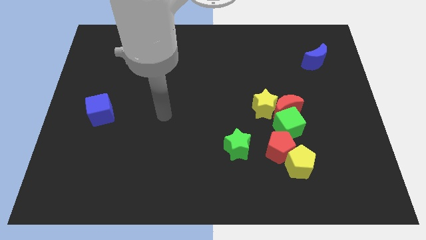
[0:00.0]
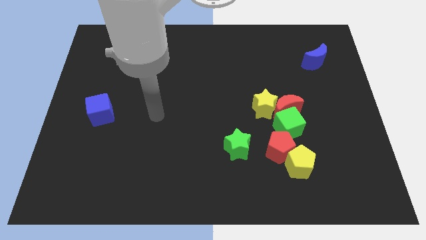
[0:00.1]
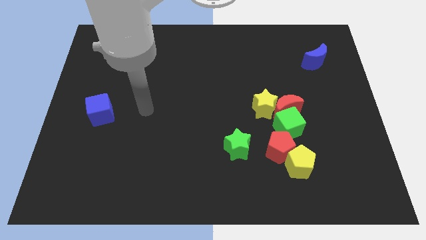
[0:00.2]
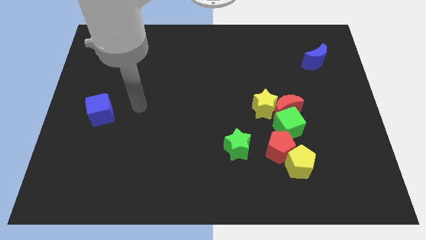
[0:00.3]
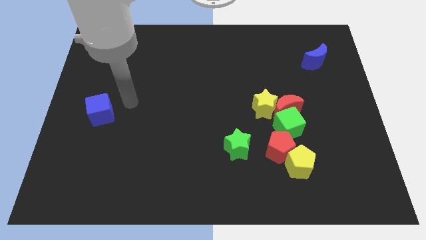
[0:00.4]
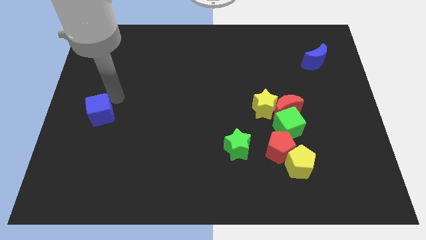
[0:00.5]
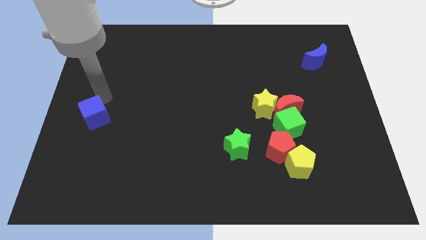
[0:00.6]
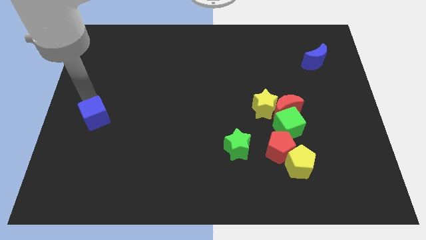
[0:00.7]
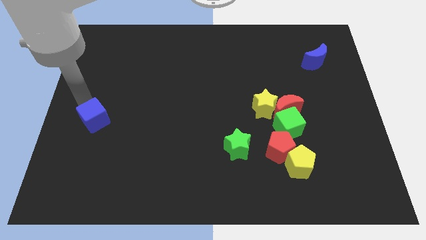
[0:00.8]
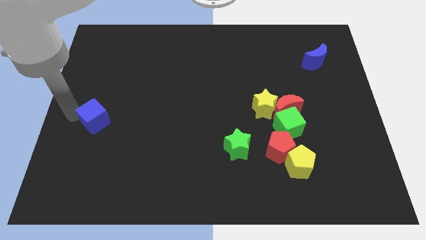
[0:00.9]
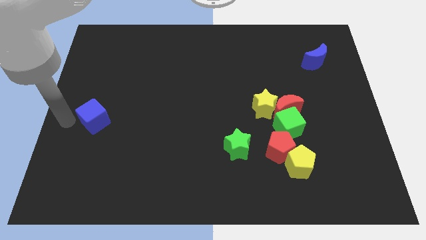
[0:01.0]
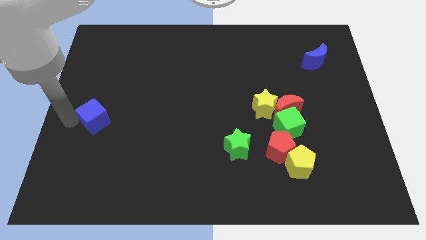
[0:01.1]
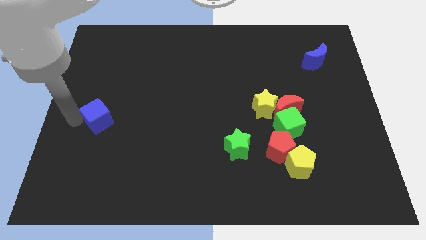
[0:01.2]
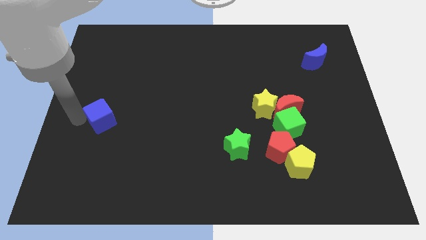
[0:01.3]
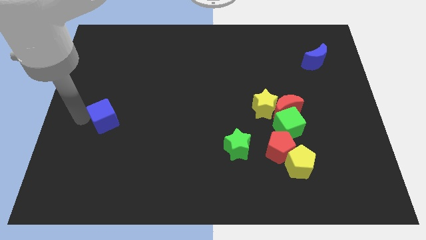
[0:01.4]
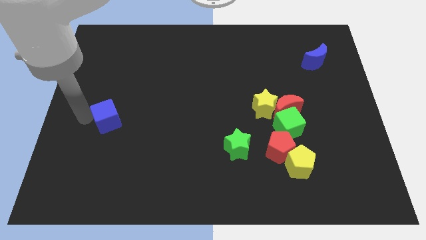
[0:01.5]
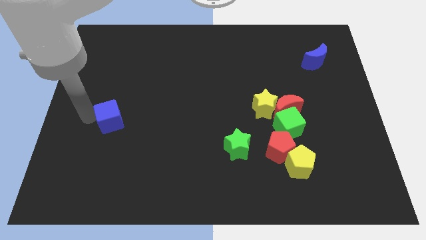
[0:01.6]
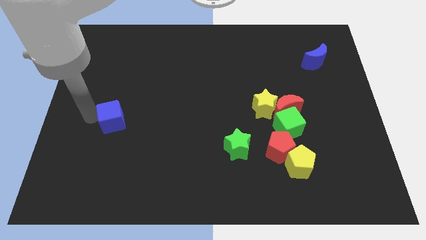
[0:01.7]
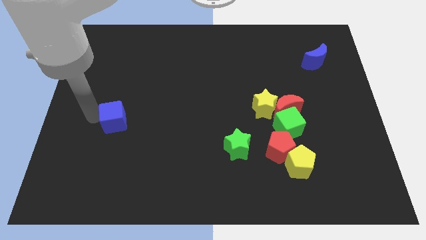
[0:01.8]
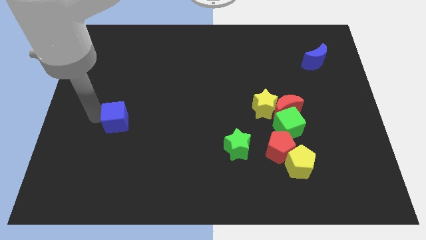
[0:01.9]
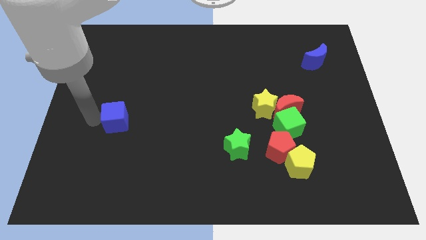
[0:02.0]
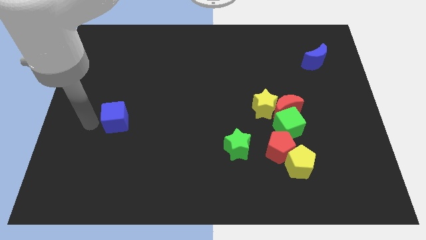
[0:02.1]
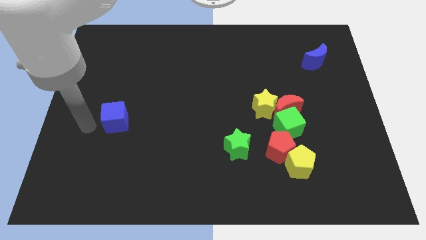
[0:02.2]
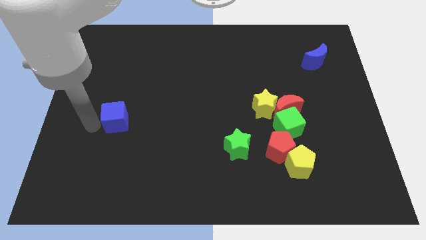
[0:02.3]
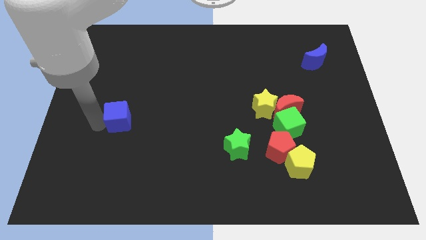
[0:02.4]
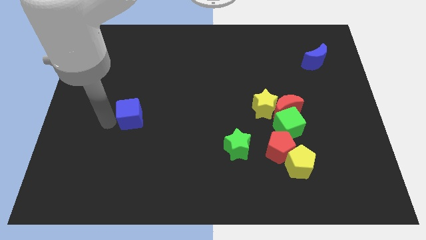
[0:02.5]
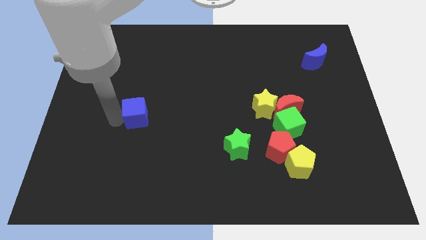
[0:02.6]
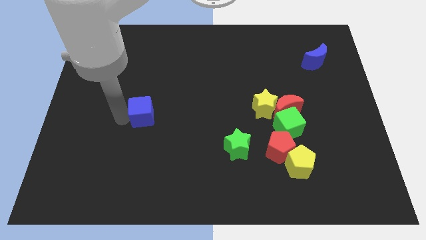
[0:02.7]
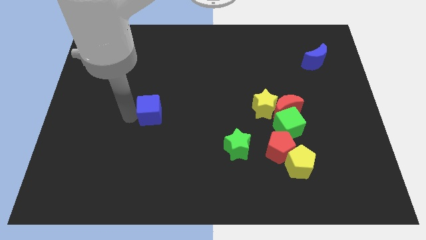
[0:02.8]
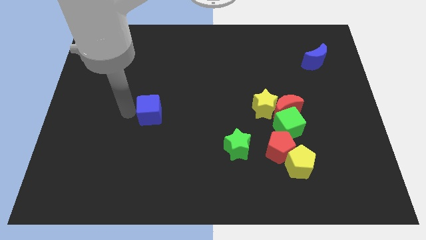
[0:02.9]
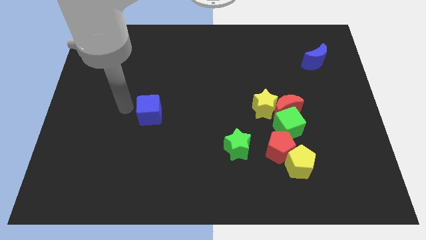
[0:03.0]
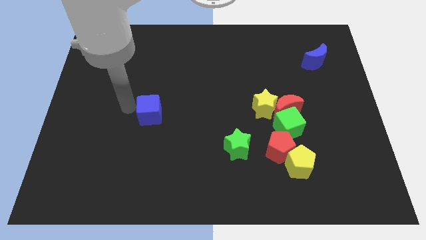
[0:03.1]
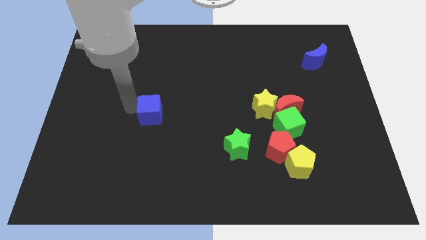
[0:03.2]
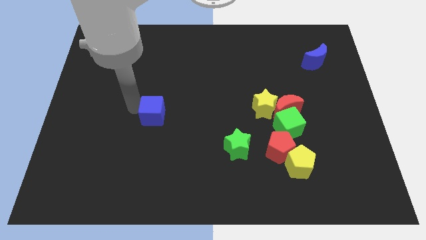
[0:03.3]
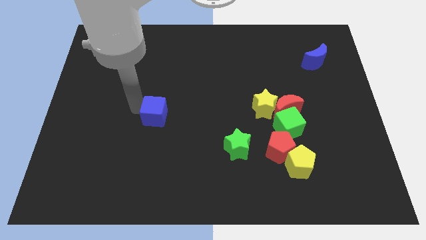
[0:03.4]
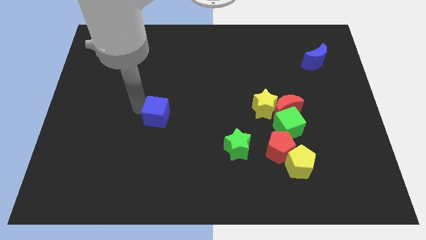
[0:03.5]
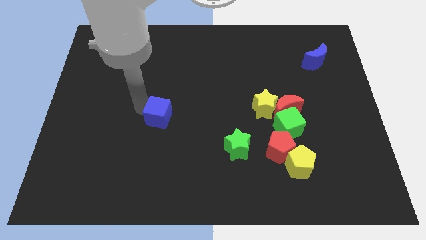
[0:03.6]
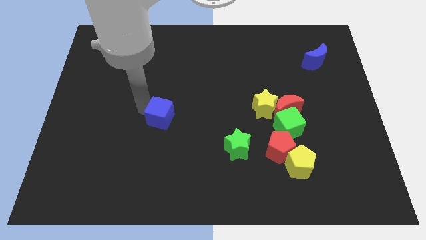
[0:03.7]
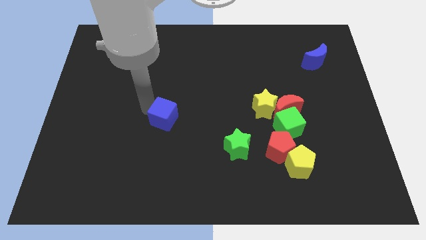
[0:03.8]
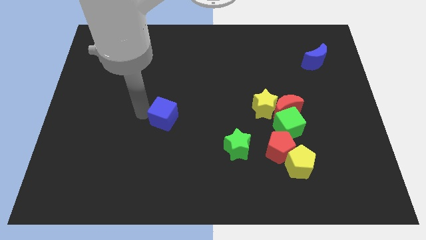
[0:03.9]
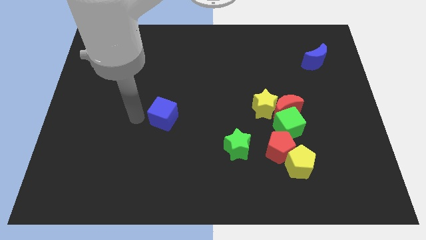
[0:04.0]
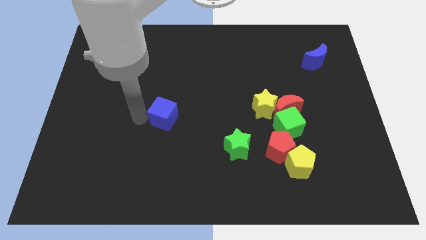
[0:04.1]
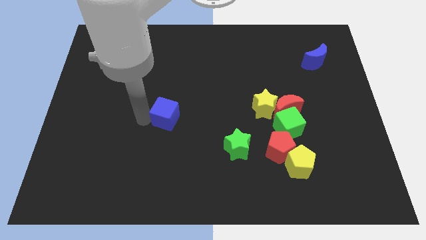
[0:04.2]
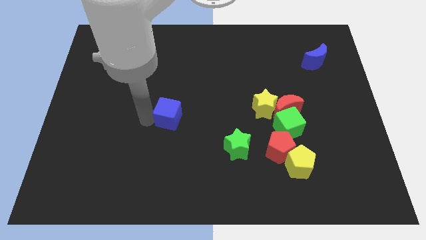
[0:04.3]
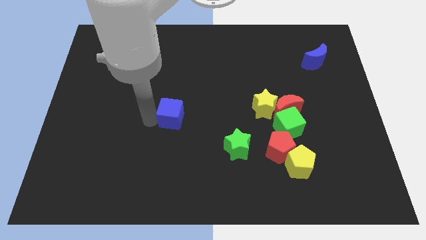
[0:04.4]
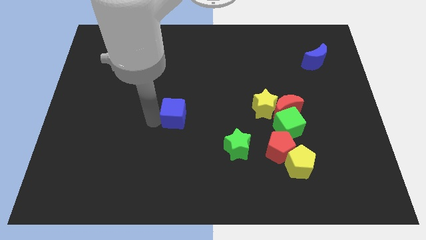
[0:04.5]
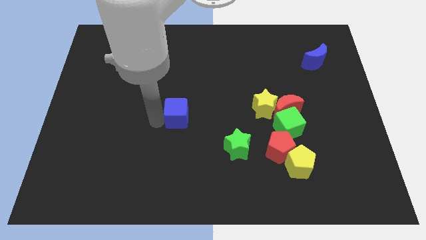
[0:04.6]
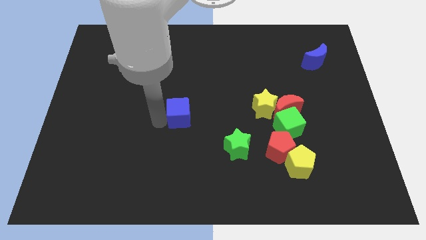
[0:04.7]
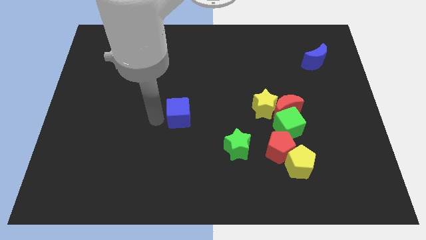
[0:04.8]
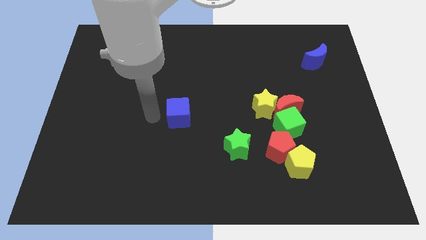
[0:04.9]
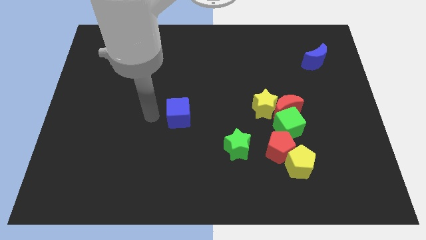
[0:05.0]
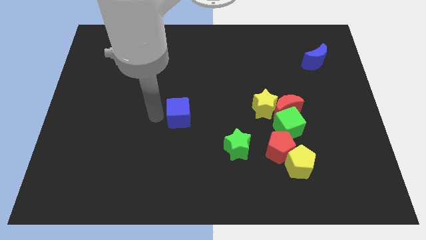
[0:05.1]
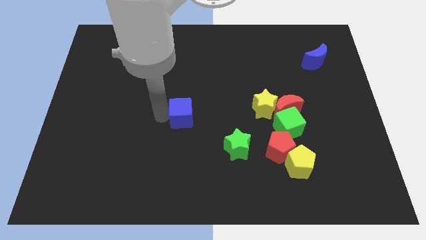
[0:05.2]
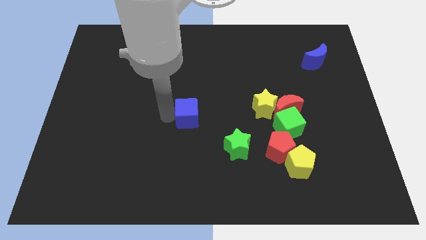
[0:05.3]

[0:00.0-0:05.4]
move the blue cube to the right

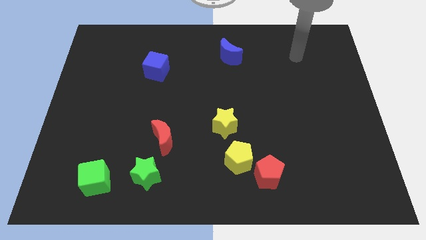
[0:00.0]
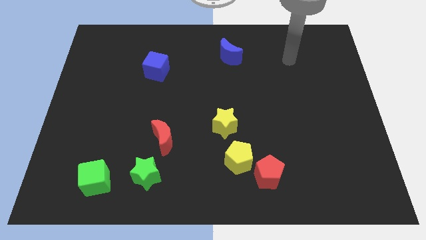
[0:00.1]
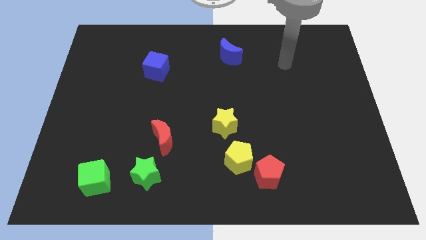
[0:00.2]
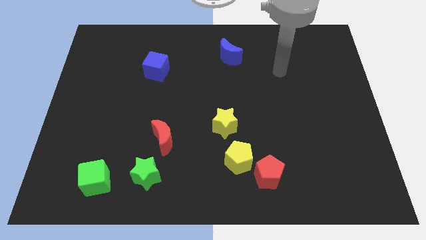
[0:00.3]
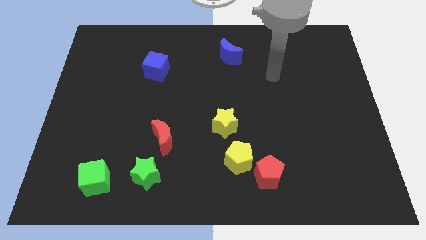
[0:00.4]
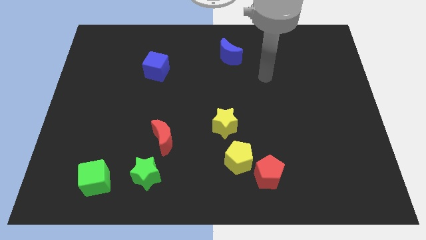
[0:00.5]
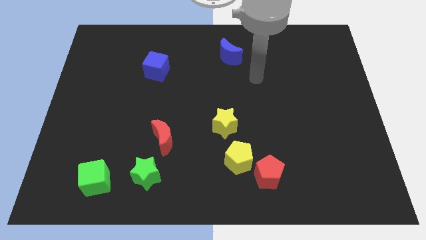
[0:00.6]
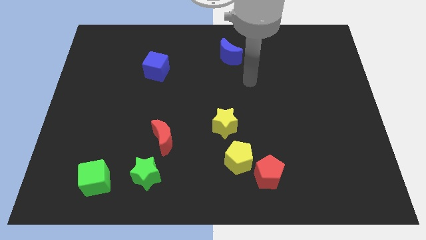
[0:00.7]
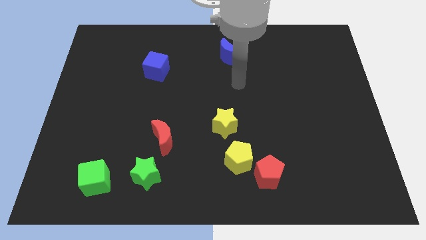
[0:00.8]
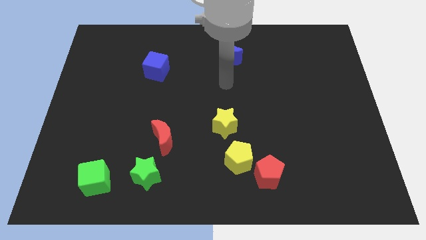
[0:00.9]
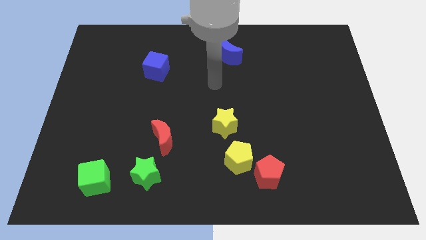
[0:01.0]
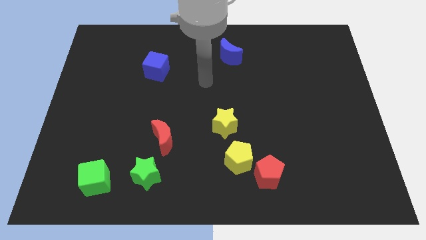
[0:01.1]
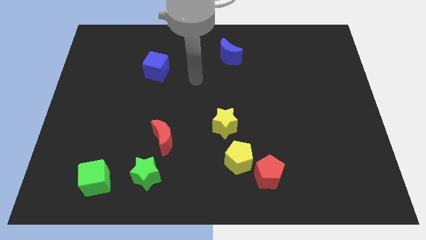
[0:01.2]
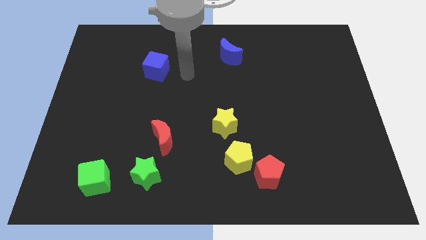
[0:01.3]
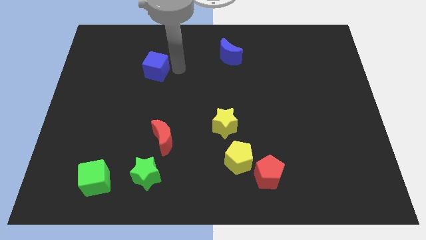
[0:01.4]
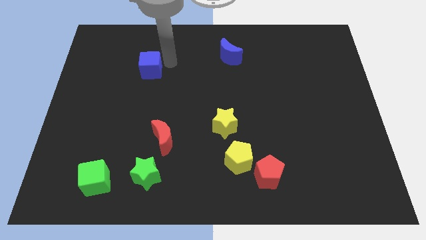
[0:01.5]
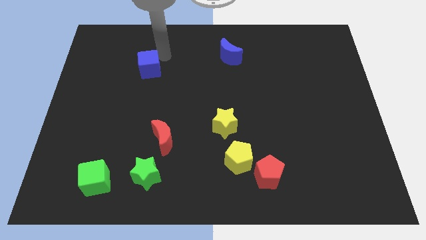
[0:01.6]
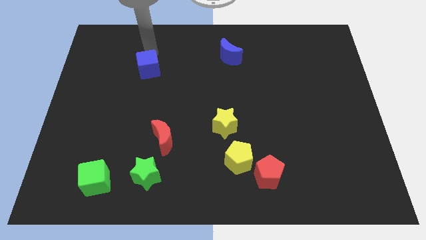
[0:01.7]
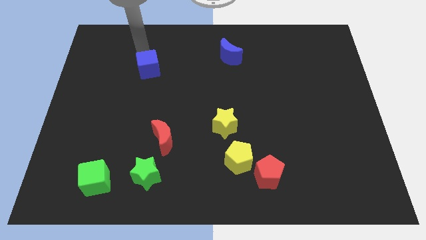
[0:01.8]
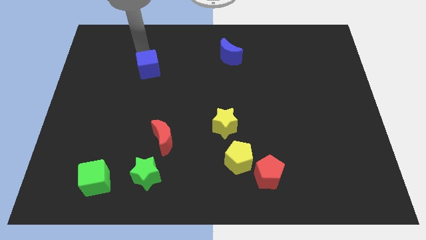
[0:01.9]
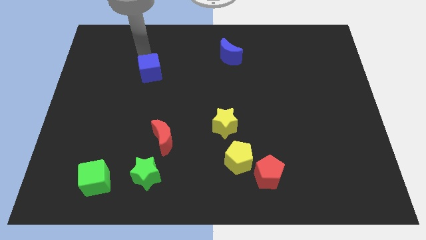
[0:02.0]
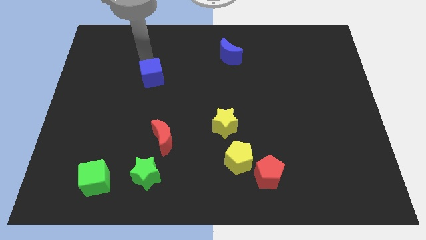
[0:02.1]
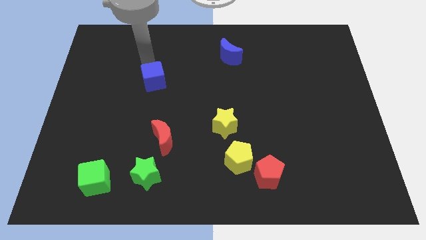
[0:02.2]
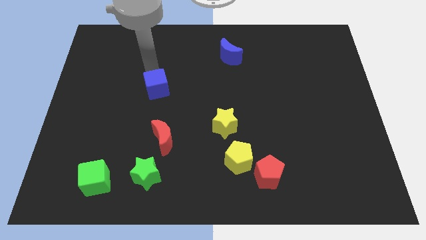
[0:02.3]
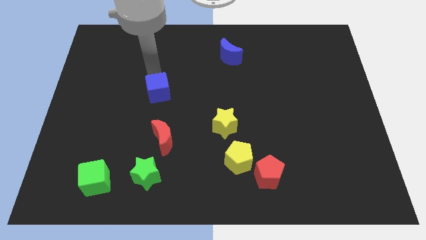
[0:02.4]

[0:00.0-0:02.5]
slightly move the blue cube downwards

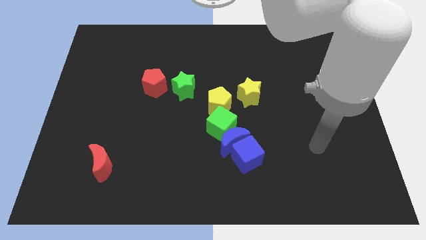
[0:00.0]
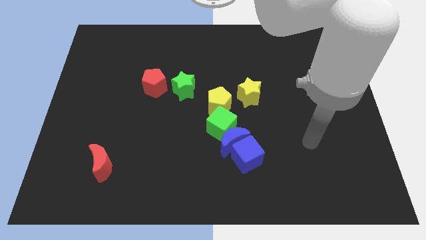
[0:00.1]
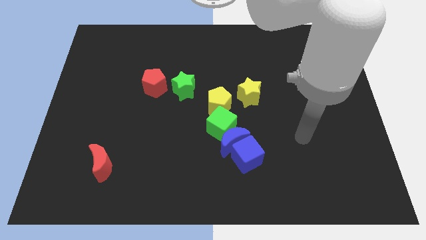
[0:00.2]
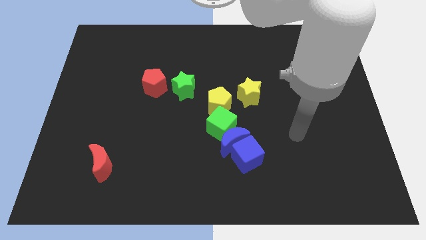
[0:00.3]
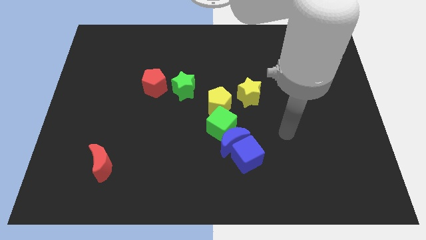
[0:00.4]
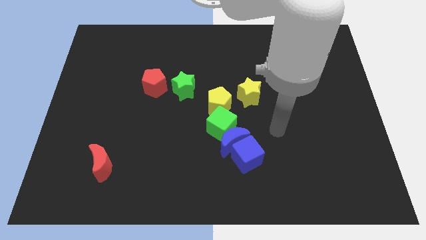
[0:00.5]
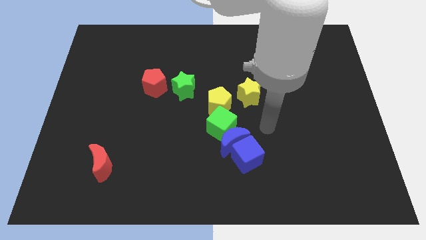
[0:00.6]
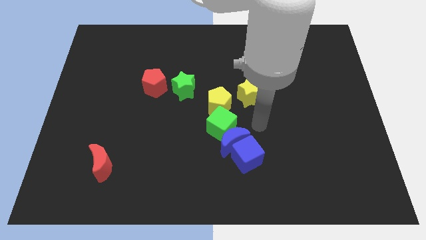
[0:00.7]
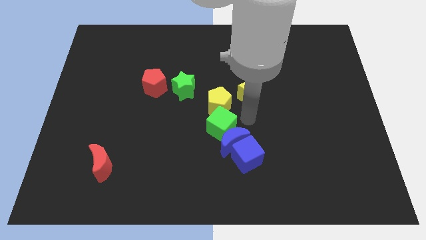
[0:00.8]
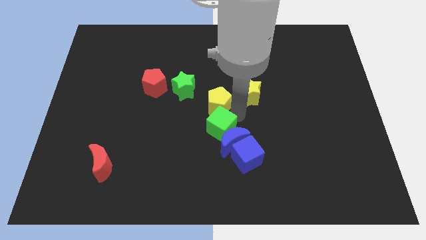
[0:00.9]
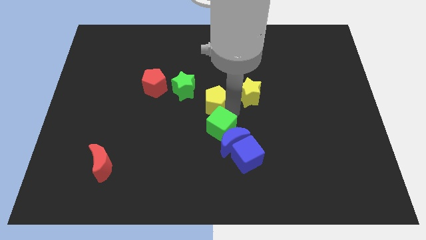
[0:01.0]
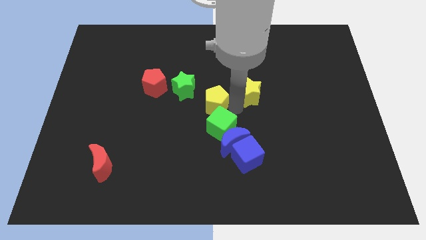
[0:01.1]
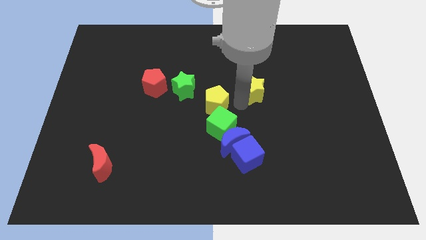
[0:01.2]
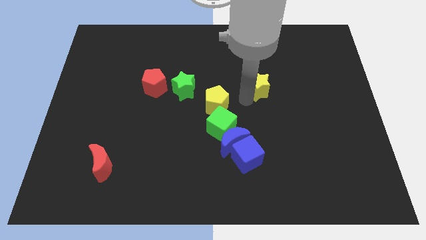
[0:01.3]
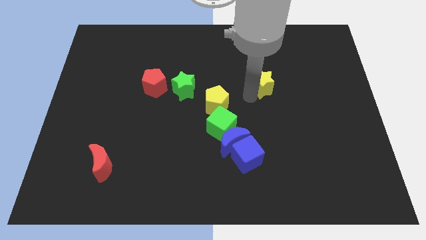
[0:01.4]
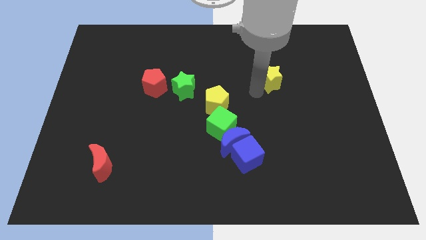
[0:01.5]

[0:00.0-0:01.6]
slightly move the yellow star up and to the right diagonally
